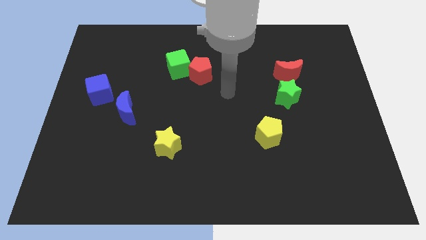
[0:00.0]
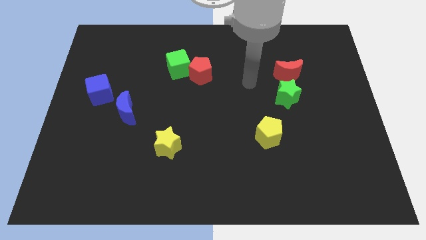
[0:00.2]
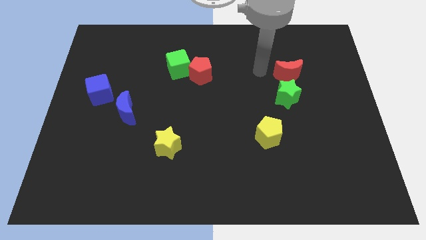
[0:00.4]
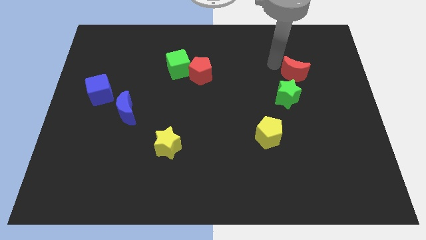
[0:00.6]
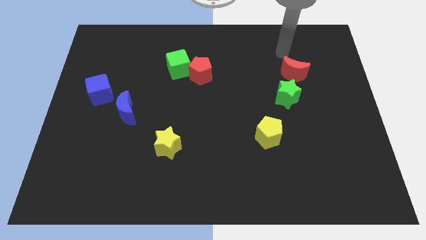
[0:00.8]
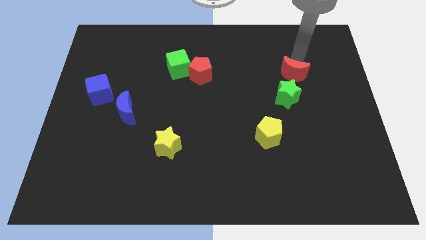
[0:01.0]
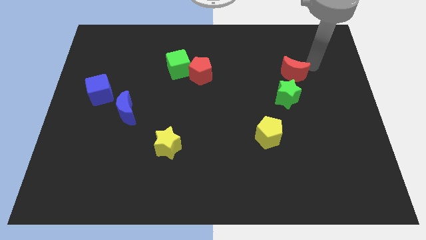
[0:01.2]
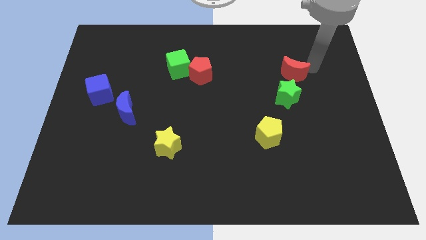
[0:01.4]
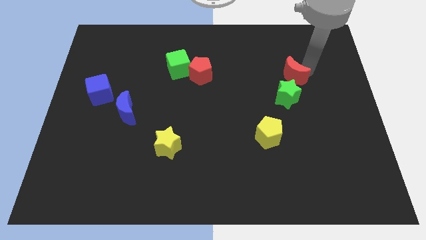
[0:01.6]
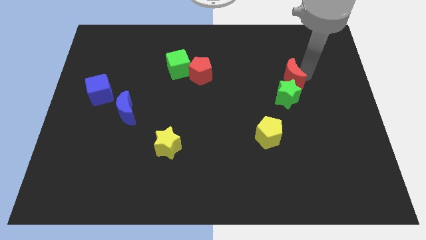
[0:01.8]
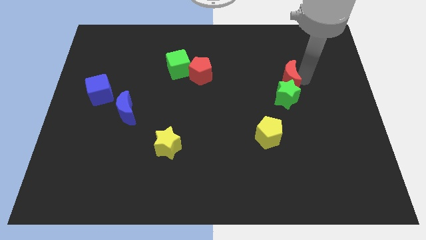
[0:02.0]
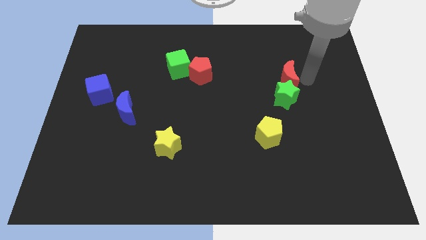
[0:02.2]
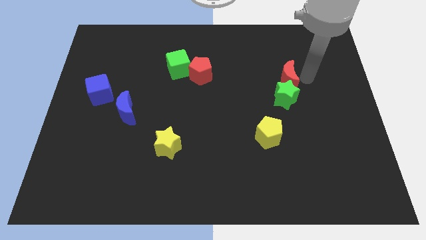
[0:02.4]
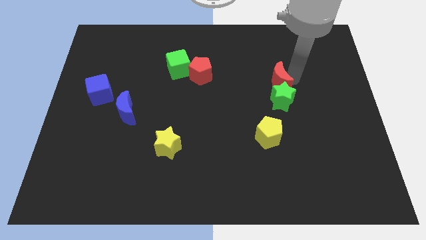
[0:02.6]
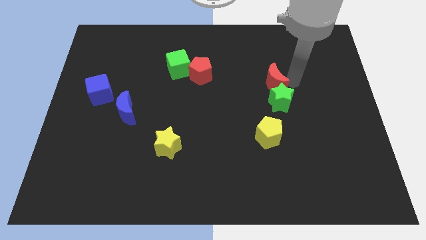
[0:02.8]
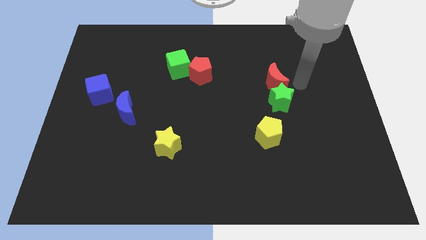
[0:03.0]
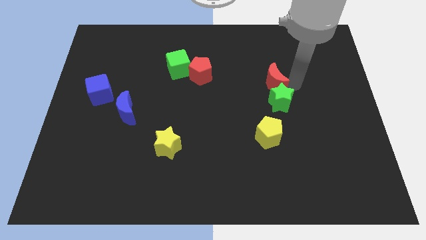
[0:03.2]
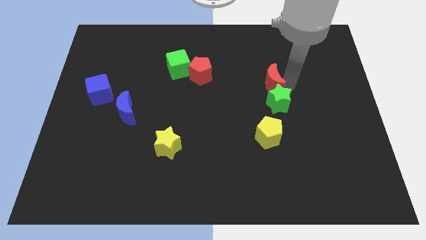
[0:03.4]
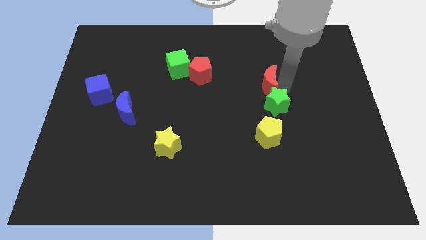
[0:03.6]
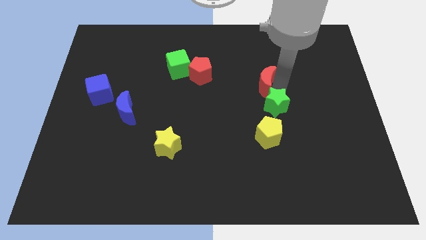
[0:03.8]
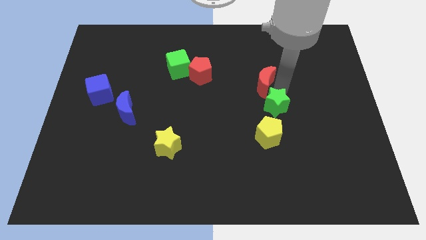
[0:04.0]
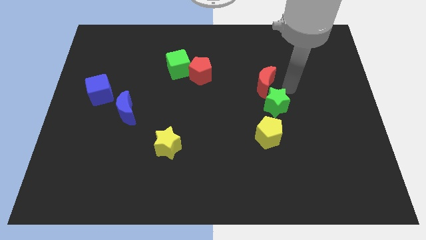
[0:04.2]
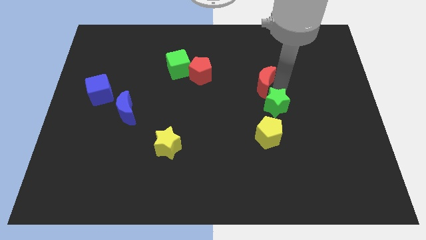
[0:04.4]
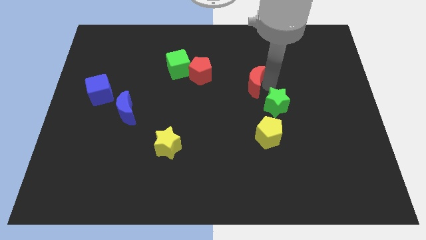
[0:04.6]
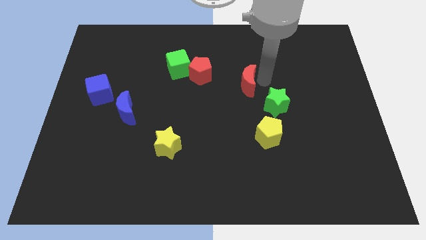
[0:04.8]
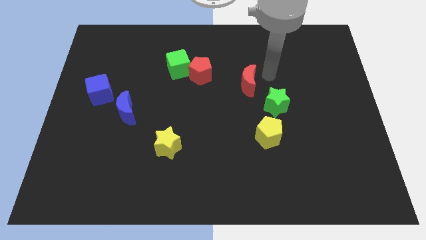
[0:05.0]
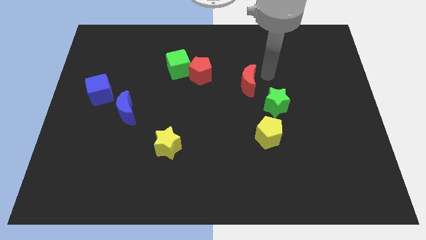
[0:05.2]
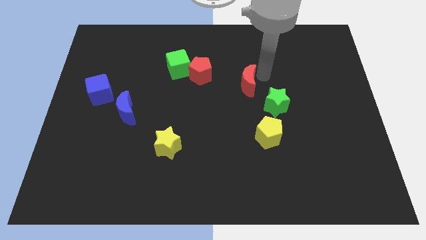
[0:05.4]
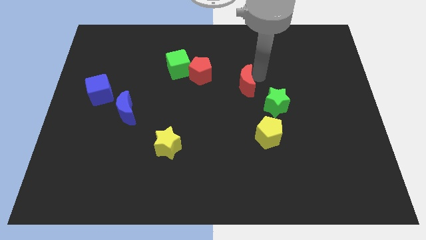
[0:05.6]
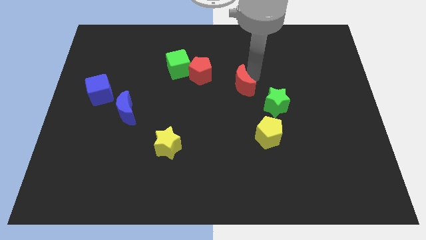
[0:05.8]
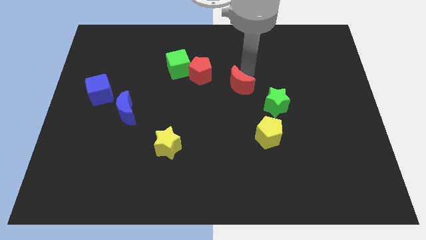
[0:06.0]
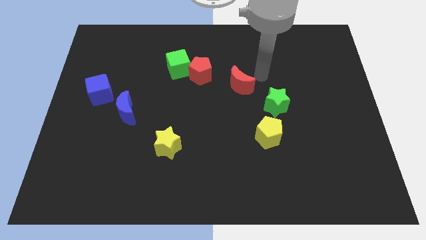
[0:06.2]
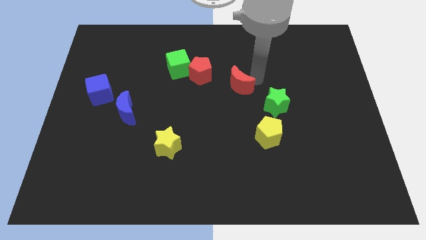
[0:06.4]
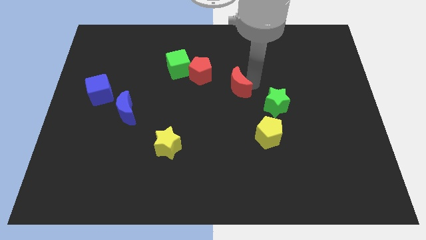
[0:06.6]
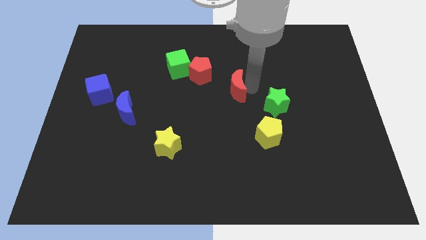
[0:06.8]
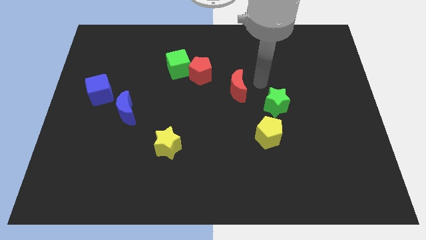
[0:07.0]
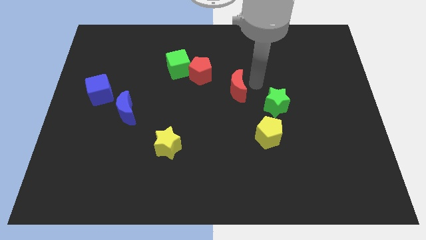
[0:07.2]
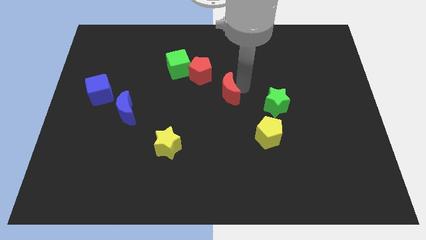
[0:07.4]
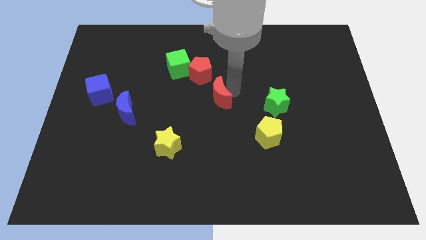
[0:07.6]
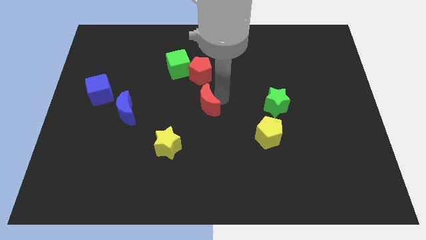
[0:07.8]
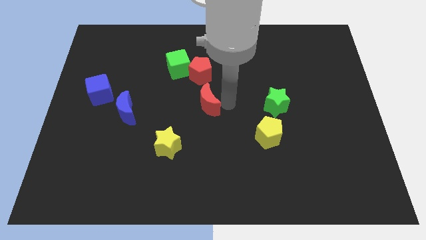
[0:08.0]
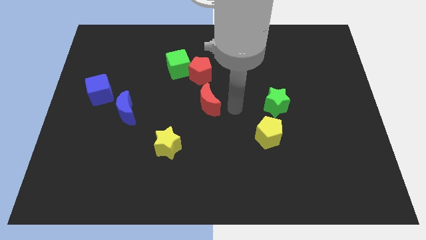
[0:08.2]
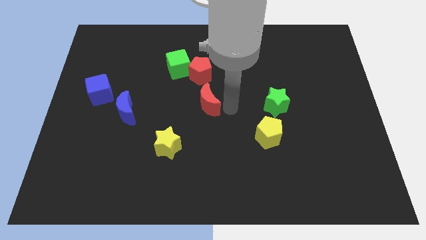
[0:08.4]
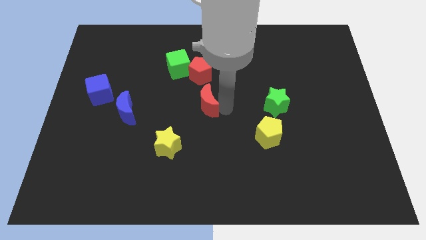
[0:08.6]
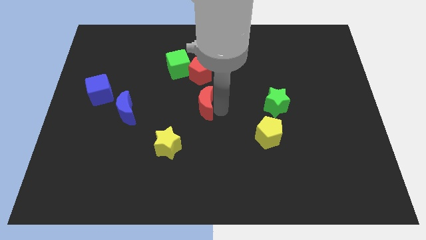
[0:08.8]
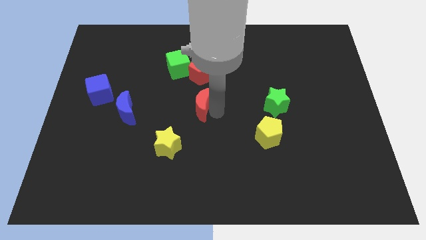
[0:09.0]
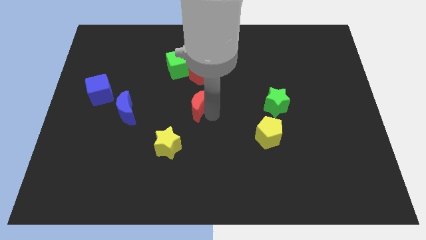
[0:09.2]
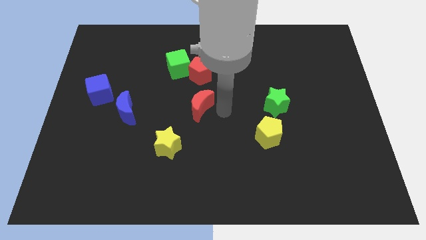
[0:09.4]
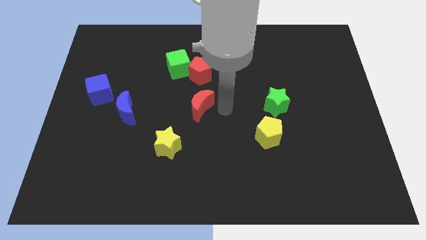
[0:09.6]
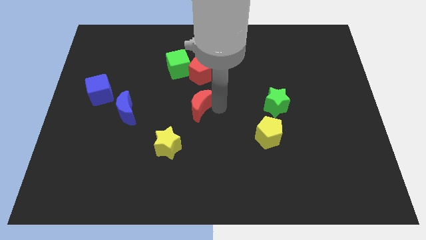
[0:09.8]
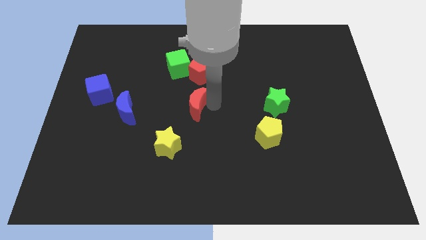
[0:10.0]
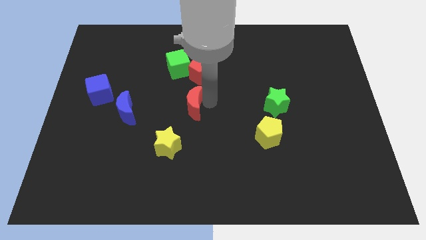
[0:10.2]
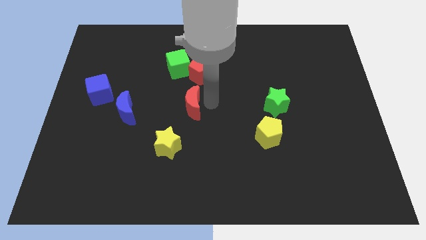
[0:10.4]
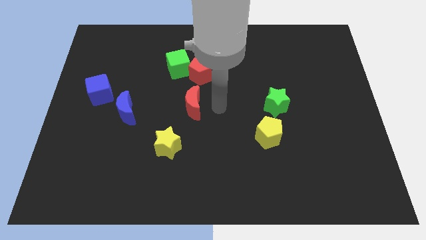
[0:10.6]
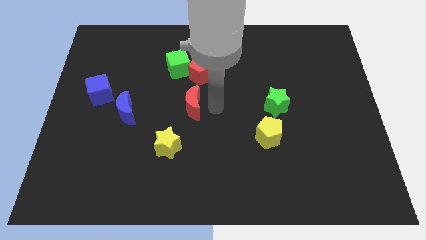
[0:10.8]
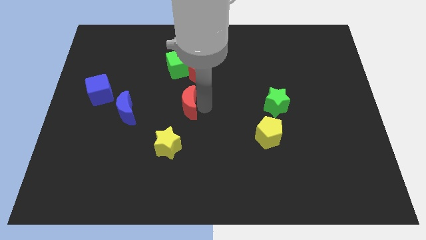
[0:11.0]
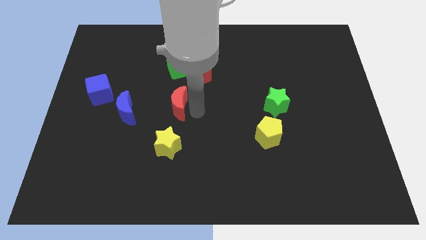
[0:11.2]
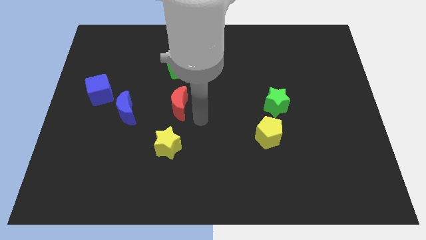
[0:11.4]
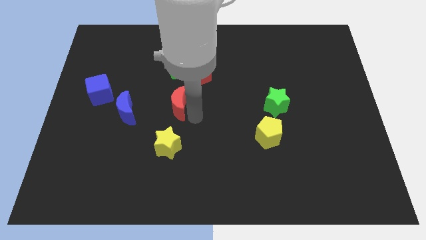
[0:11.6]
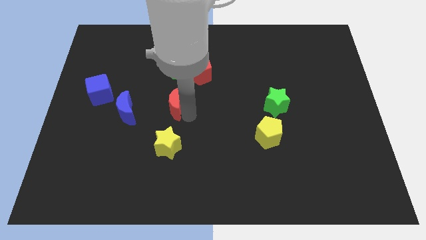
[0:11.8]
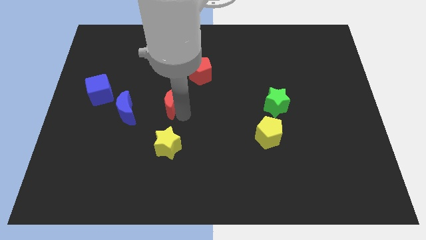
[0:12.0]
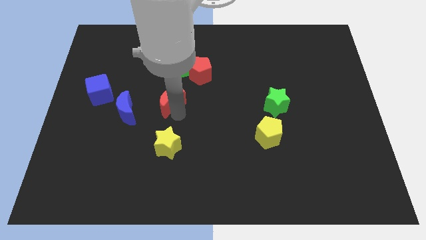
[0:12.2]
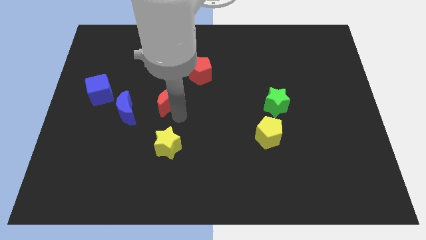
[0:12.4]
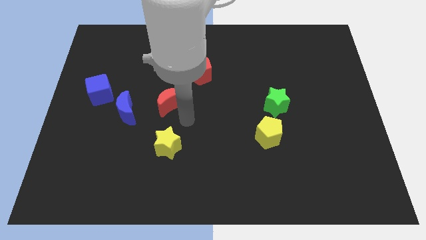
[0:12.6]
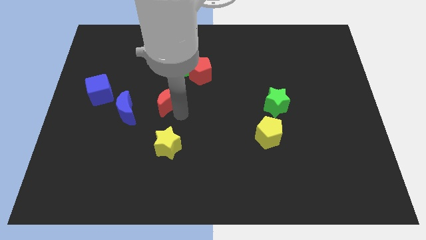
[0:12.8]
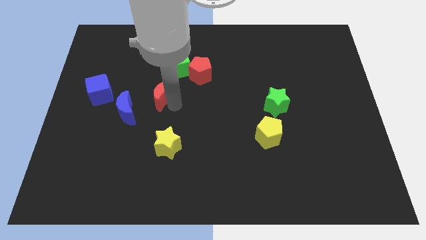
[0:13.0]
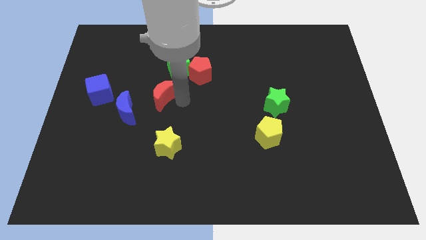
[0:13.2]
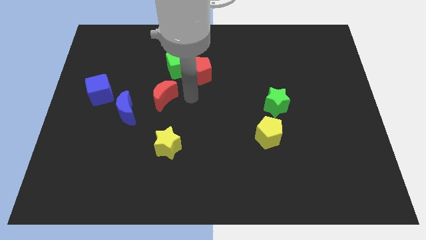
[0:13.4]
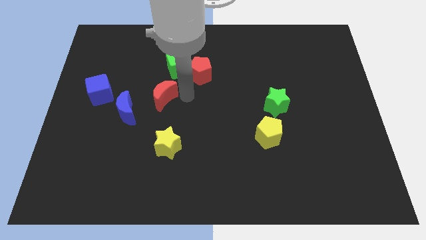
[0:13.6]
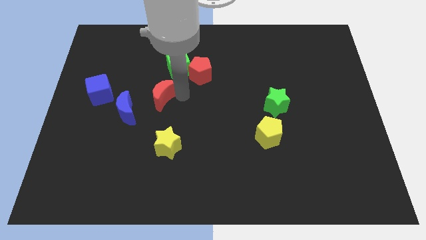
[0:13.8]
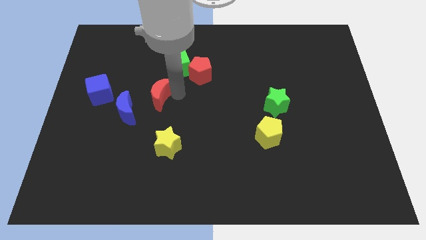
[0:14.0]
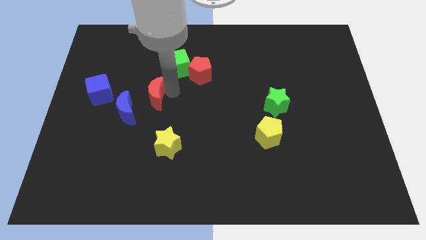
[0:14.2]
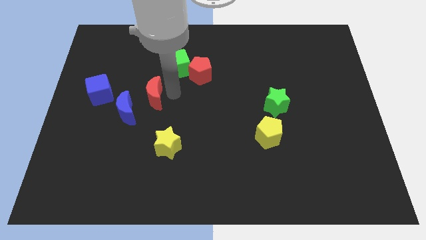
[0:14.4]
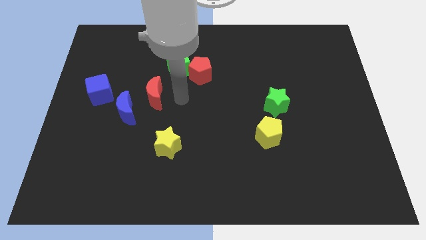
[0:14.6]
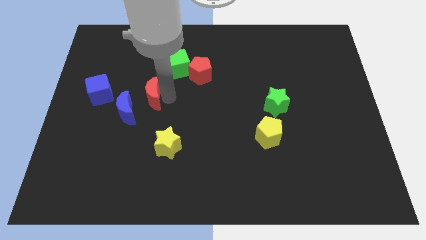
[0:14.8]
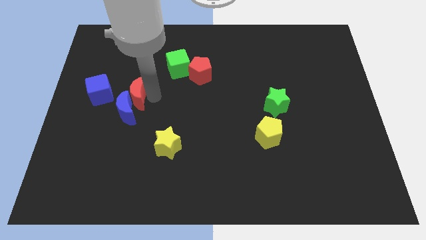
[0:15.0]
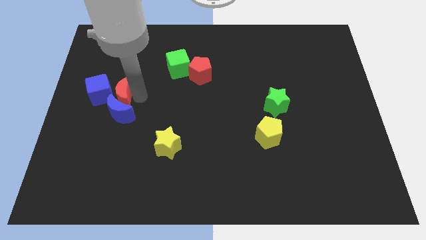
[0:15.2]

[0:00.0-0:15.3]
put the red moon next to the blue cube
